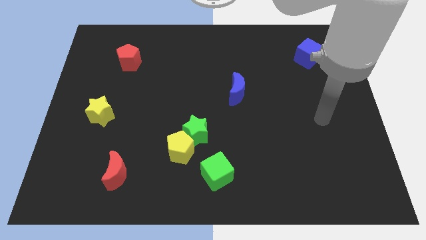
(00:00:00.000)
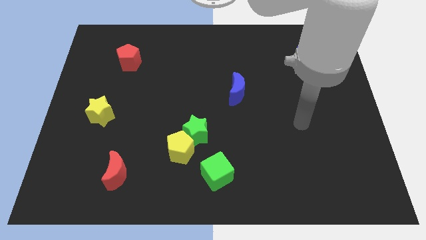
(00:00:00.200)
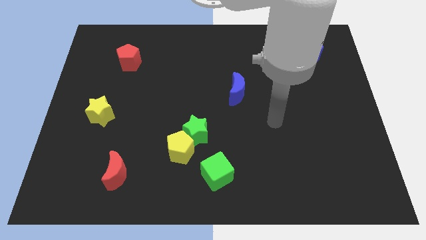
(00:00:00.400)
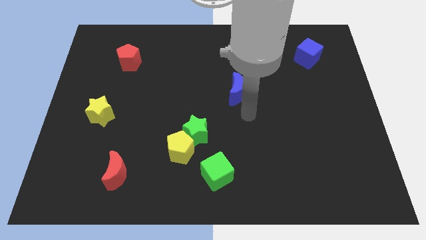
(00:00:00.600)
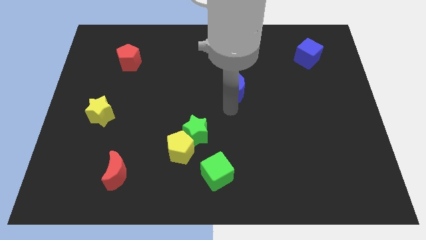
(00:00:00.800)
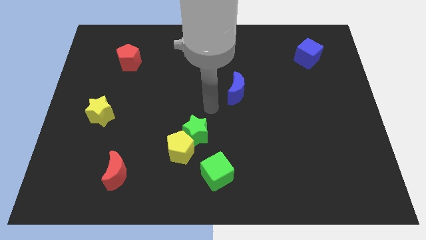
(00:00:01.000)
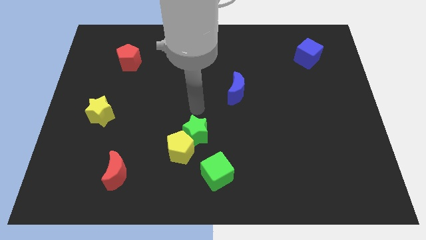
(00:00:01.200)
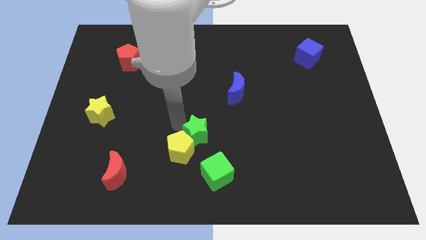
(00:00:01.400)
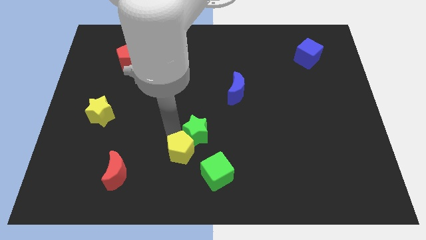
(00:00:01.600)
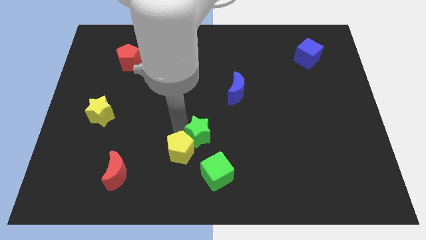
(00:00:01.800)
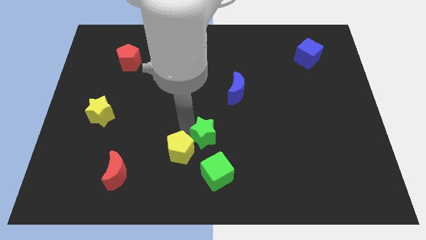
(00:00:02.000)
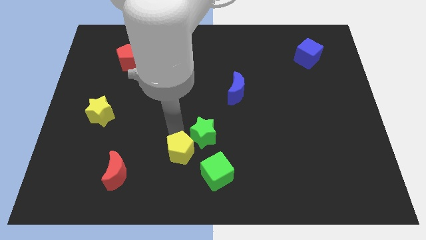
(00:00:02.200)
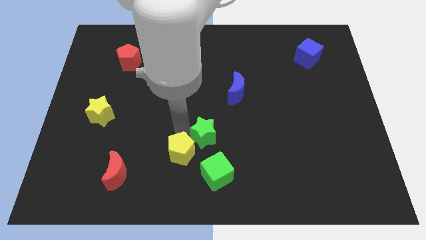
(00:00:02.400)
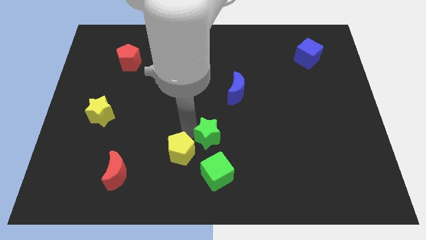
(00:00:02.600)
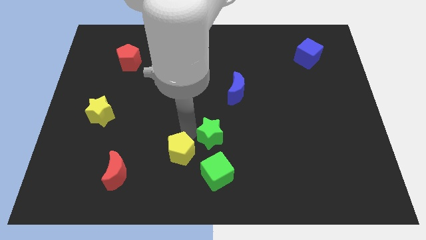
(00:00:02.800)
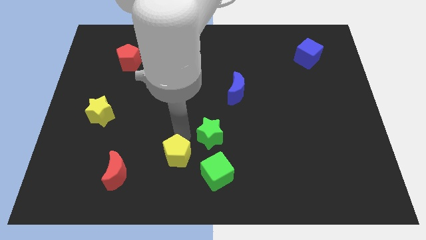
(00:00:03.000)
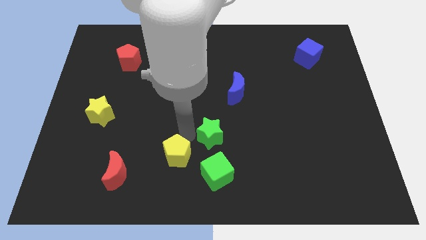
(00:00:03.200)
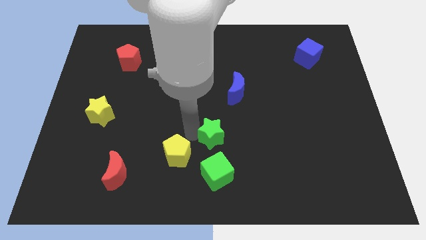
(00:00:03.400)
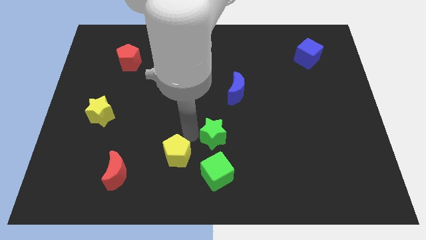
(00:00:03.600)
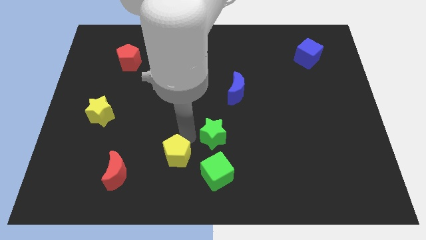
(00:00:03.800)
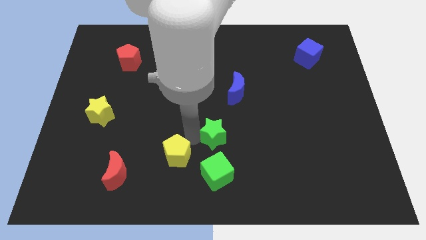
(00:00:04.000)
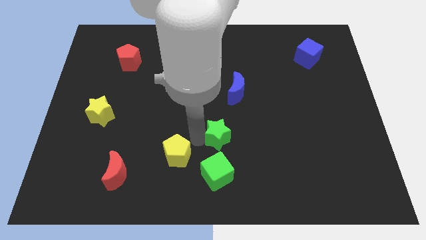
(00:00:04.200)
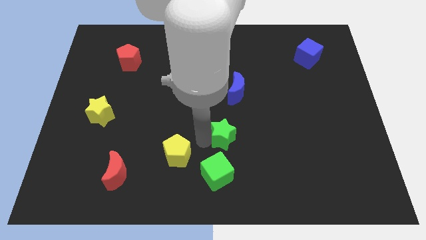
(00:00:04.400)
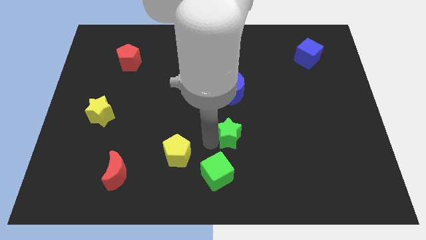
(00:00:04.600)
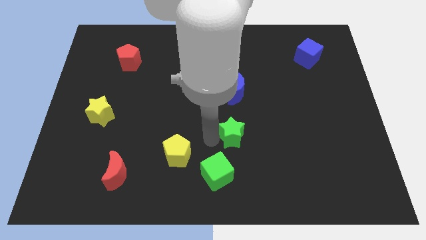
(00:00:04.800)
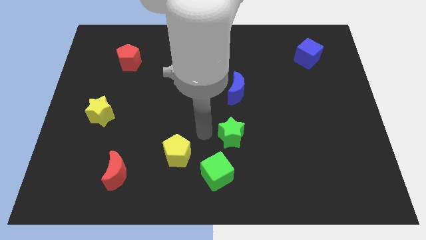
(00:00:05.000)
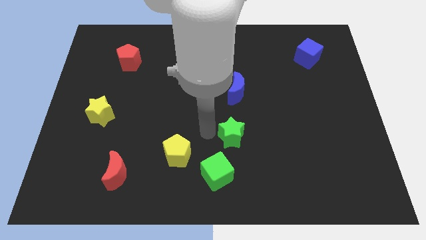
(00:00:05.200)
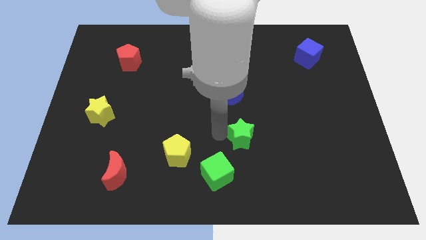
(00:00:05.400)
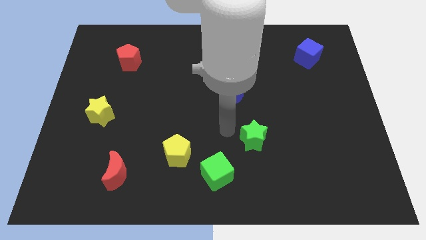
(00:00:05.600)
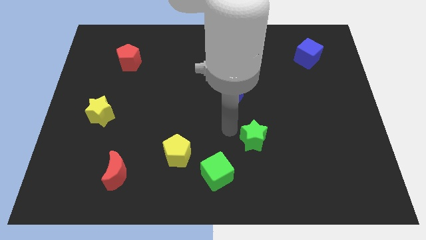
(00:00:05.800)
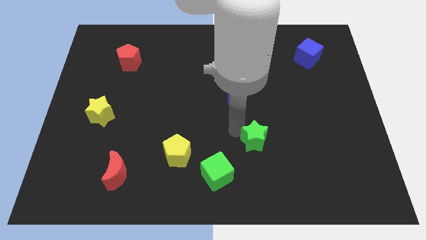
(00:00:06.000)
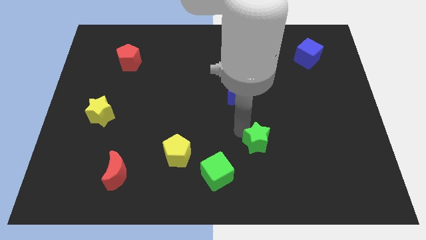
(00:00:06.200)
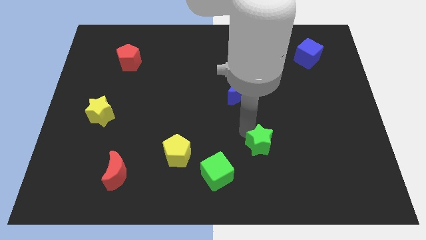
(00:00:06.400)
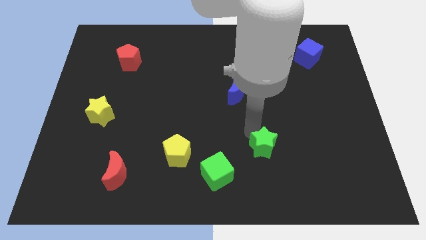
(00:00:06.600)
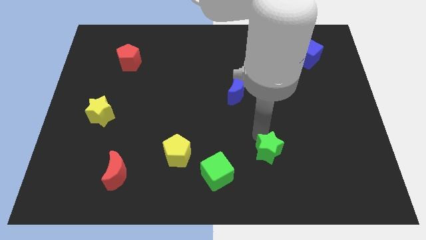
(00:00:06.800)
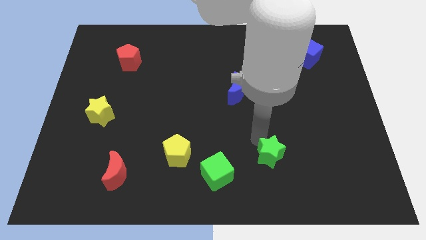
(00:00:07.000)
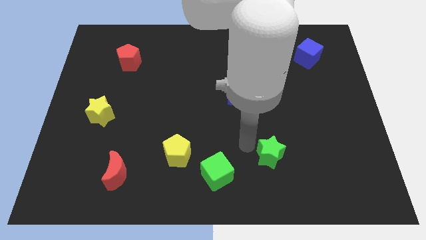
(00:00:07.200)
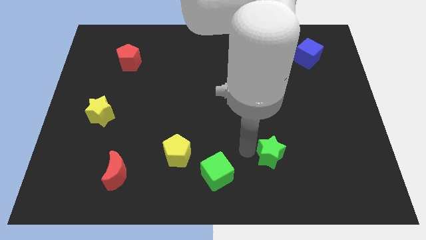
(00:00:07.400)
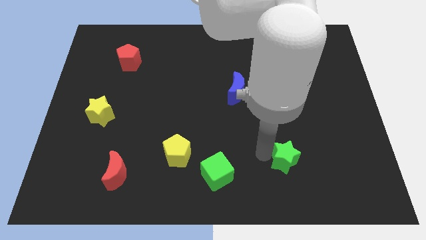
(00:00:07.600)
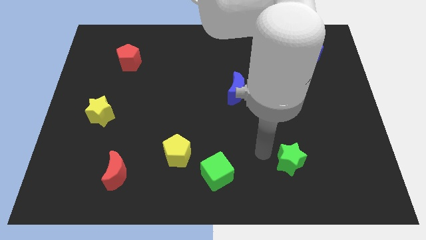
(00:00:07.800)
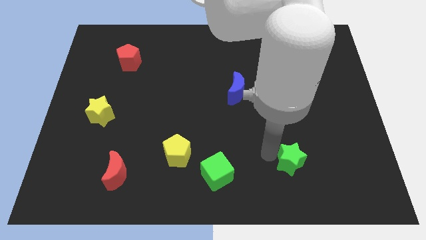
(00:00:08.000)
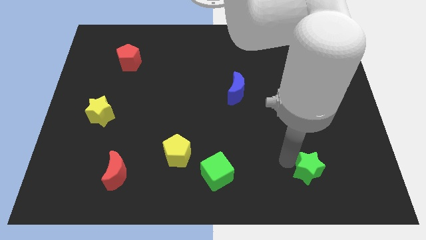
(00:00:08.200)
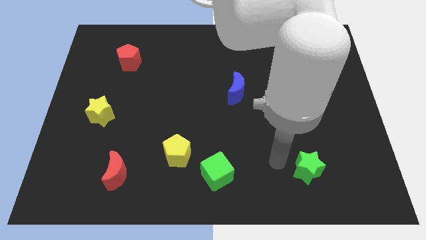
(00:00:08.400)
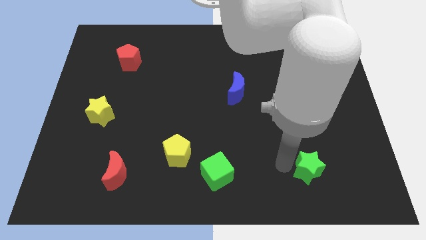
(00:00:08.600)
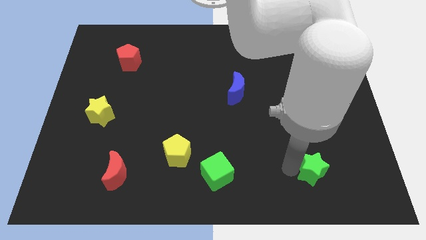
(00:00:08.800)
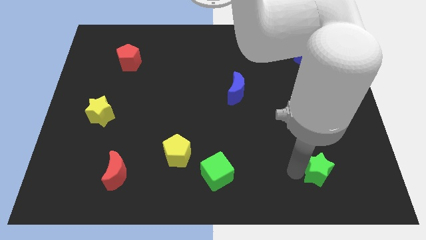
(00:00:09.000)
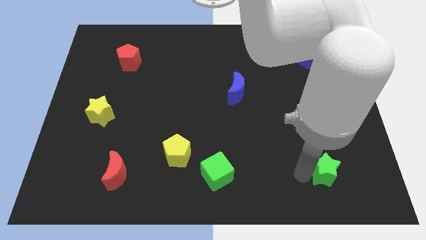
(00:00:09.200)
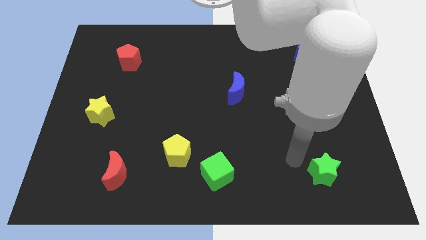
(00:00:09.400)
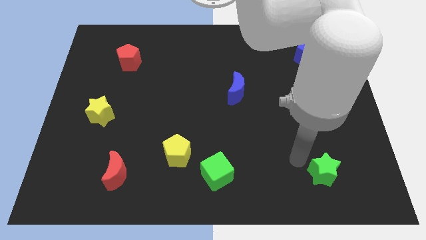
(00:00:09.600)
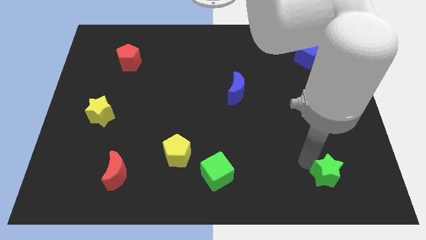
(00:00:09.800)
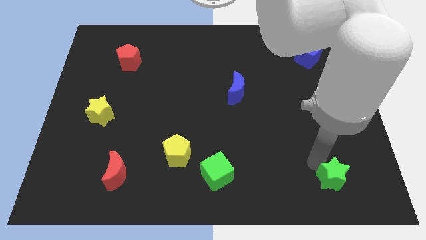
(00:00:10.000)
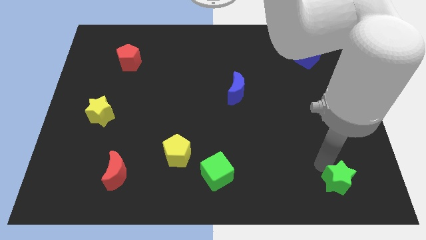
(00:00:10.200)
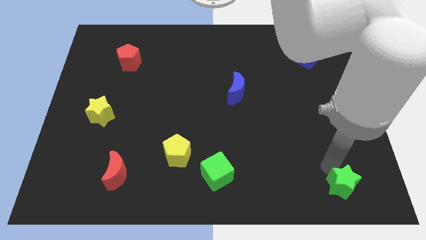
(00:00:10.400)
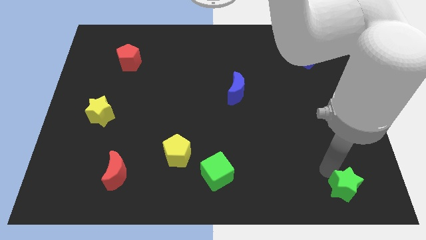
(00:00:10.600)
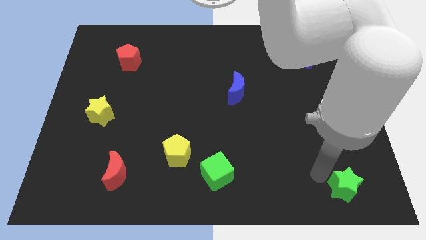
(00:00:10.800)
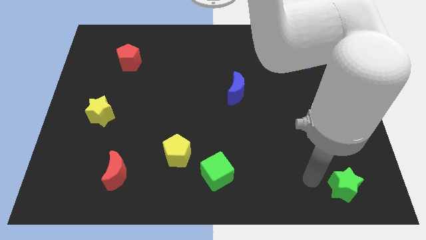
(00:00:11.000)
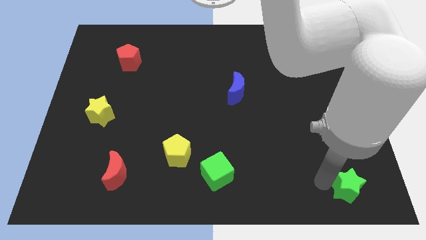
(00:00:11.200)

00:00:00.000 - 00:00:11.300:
put the green star to the bottom right corner

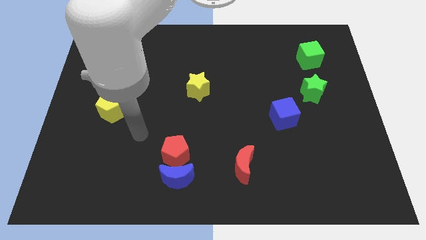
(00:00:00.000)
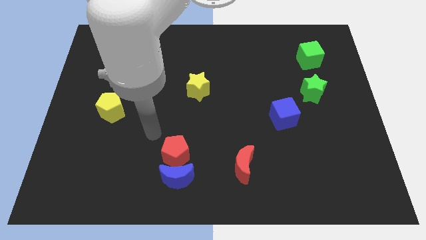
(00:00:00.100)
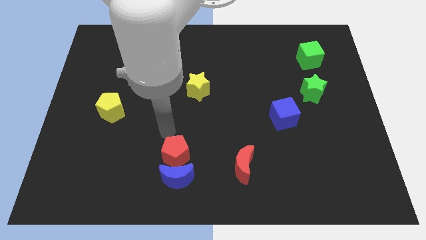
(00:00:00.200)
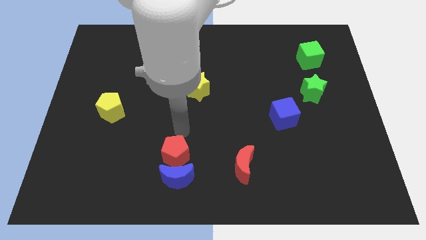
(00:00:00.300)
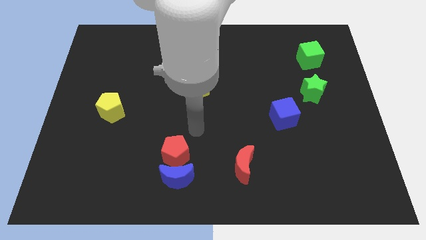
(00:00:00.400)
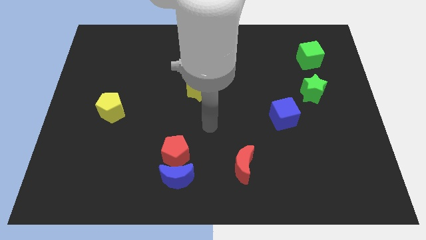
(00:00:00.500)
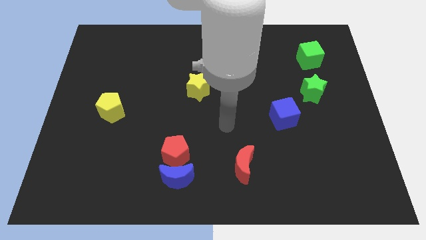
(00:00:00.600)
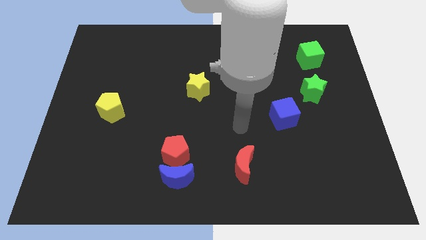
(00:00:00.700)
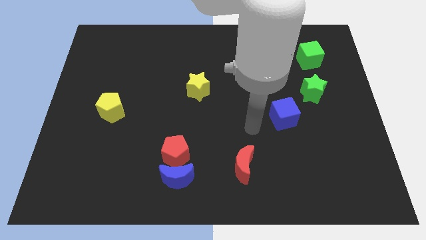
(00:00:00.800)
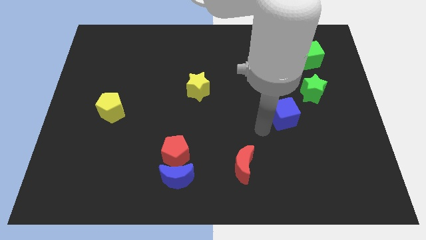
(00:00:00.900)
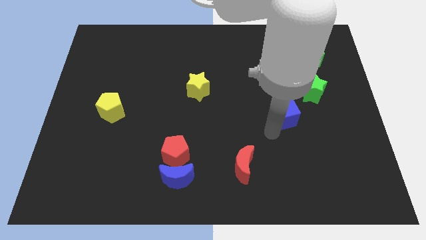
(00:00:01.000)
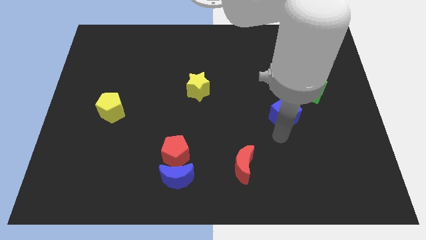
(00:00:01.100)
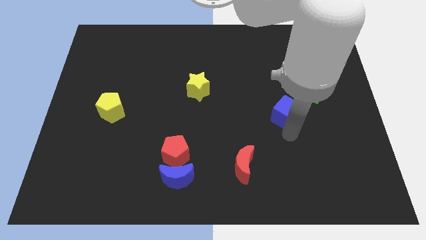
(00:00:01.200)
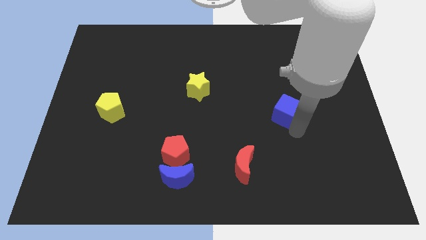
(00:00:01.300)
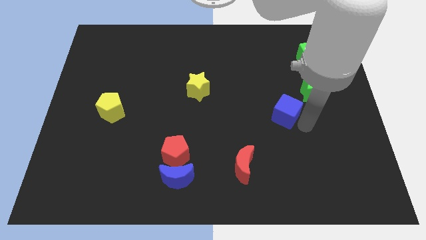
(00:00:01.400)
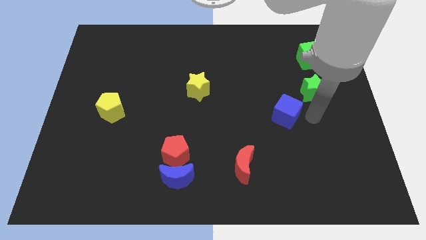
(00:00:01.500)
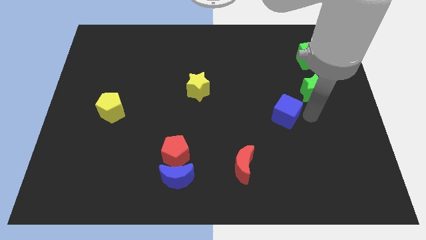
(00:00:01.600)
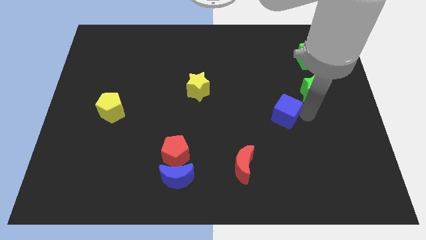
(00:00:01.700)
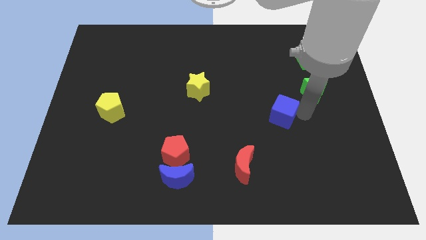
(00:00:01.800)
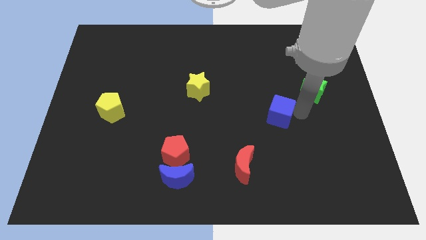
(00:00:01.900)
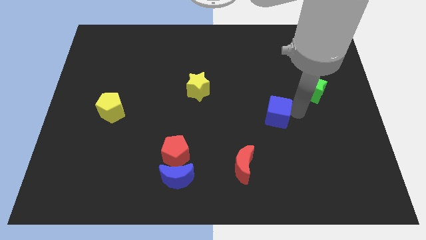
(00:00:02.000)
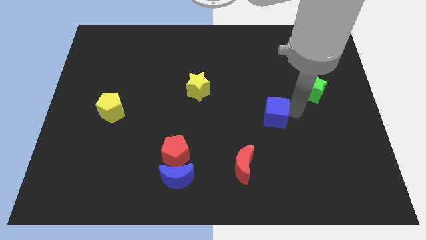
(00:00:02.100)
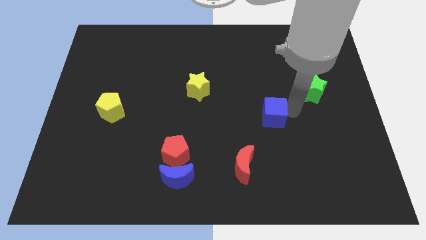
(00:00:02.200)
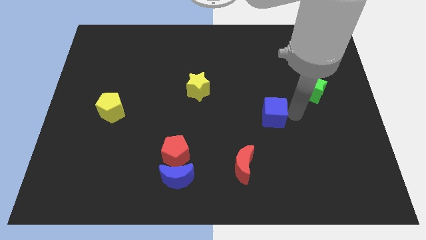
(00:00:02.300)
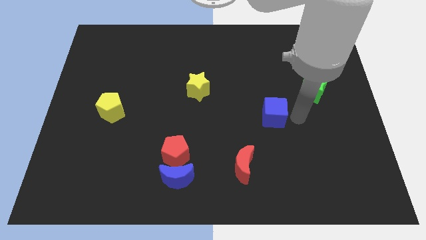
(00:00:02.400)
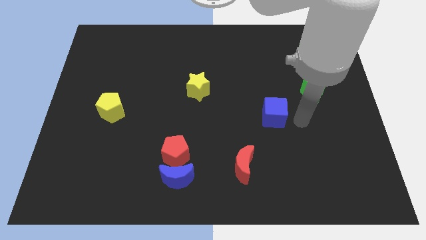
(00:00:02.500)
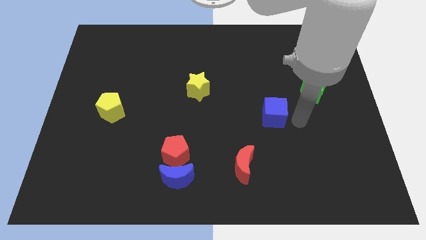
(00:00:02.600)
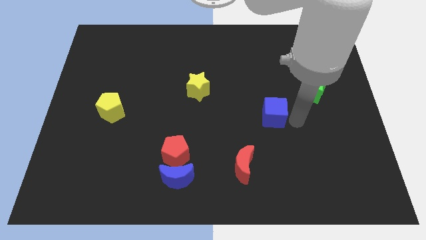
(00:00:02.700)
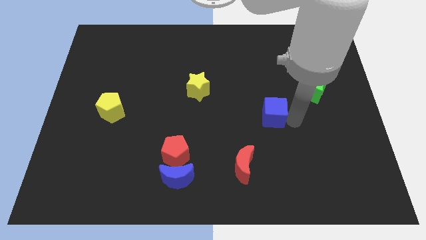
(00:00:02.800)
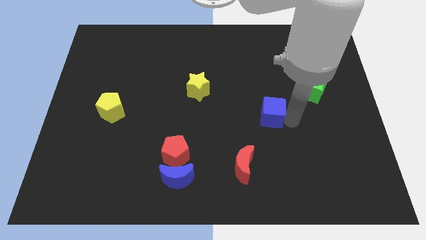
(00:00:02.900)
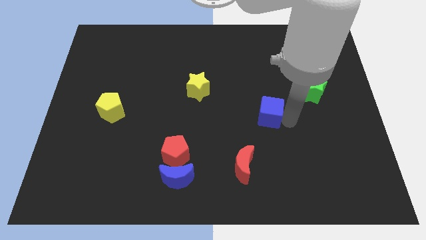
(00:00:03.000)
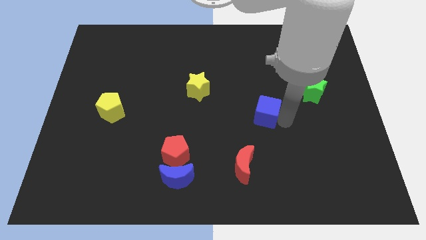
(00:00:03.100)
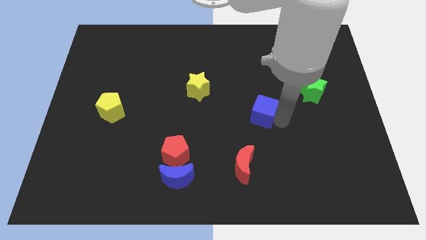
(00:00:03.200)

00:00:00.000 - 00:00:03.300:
push the blue cube to the middle
